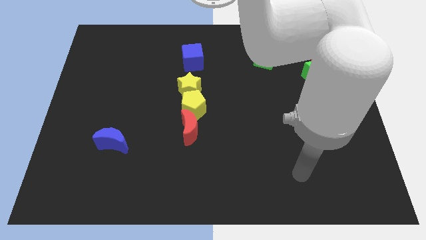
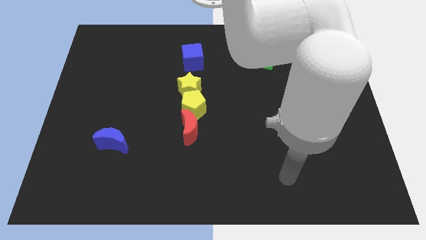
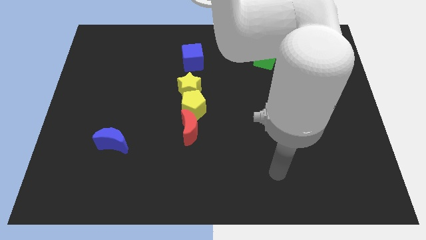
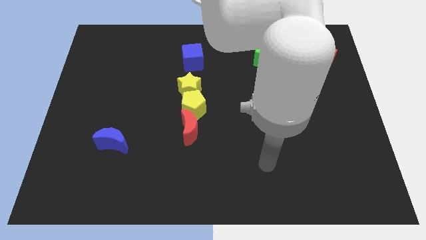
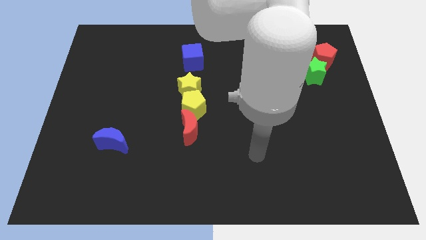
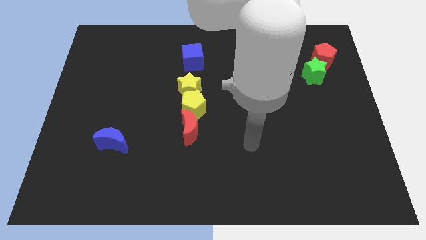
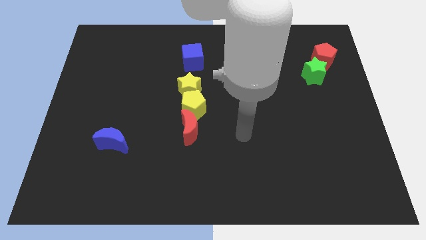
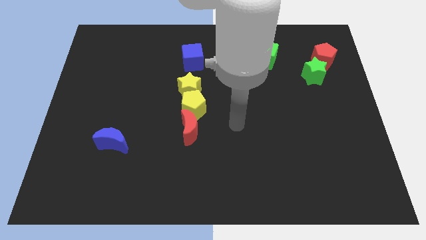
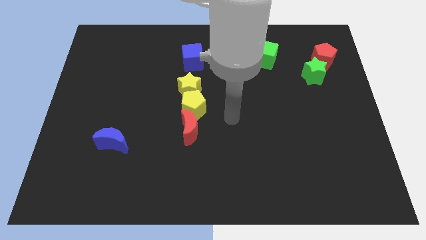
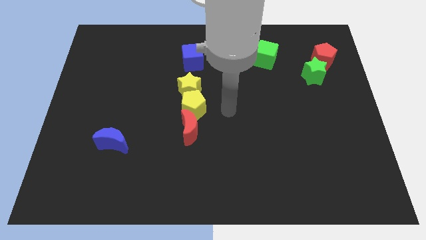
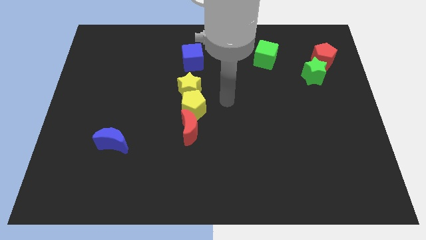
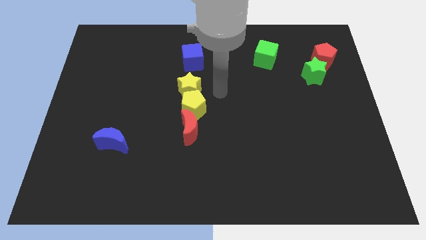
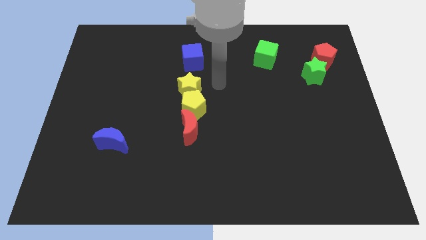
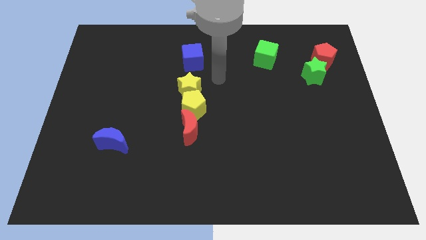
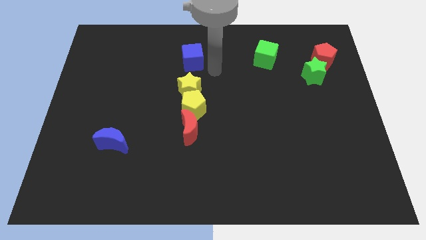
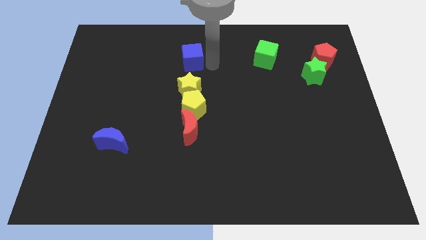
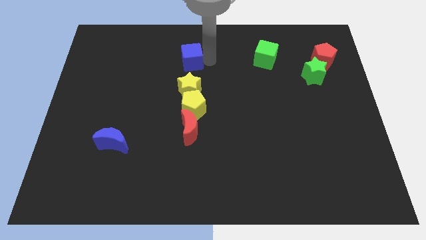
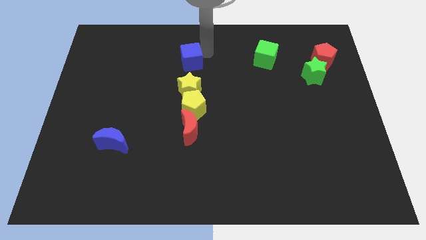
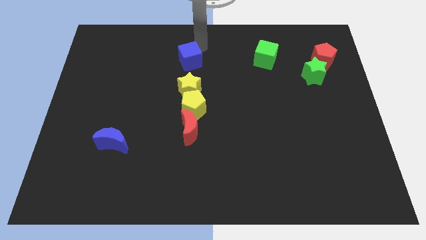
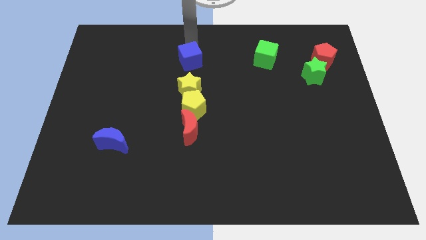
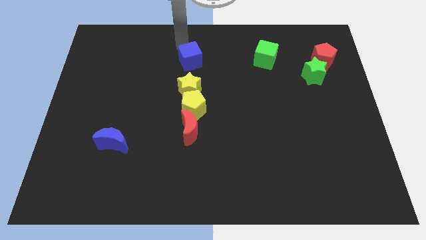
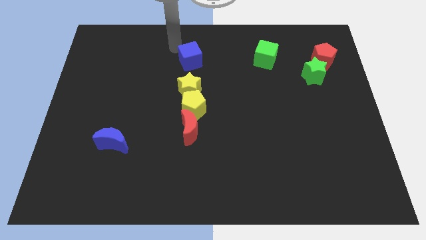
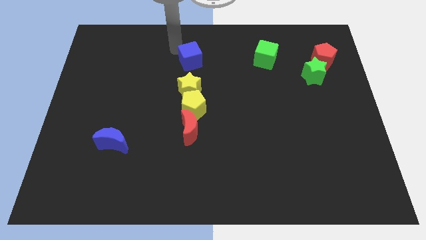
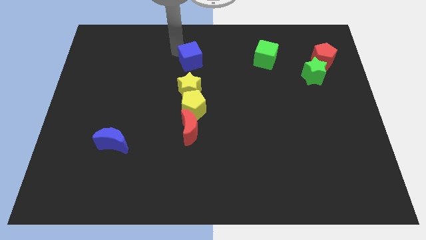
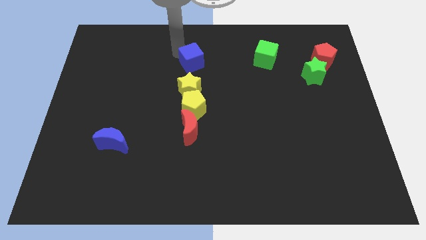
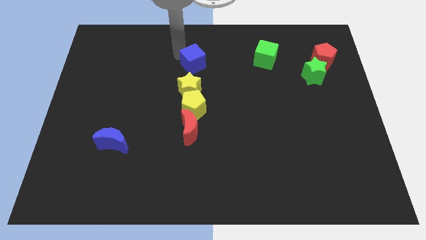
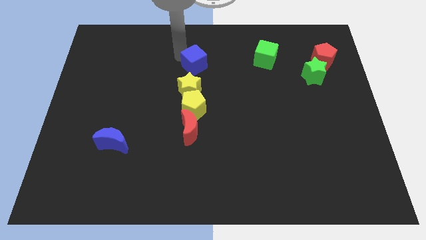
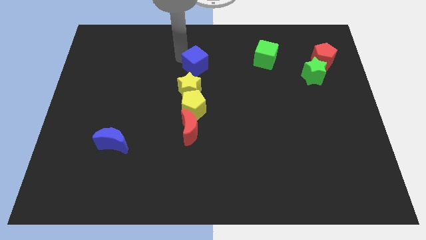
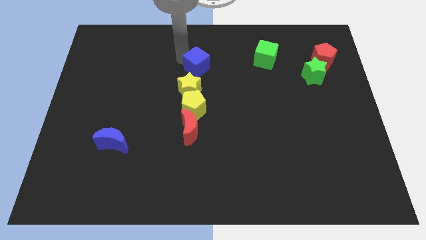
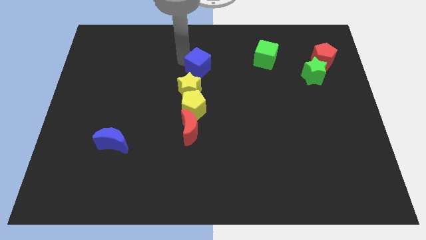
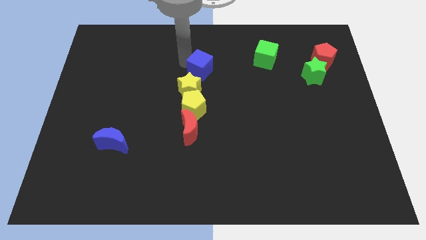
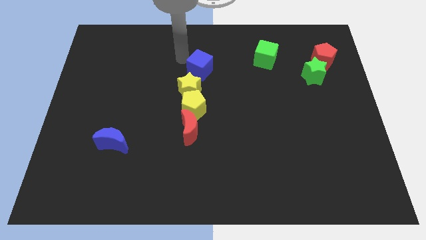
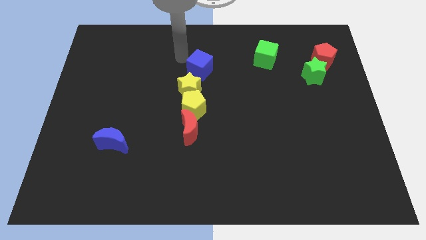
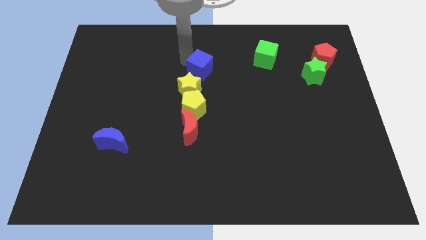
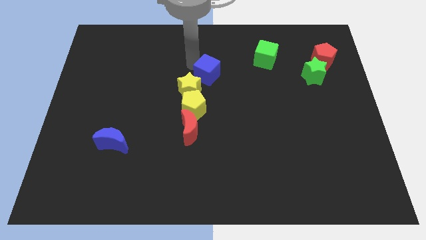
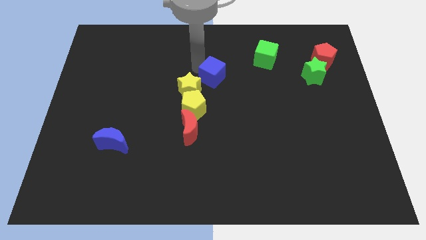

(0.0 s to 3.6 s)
move the blue cube a little downwards and then right

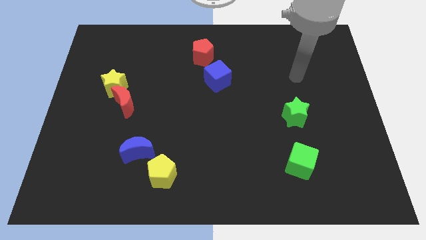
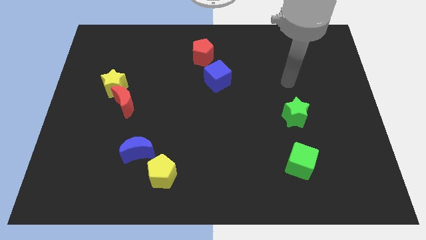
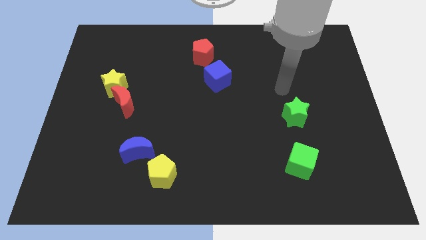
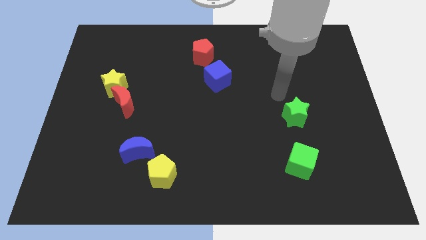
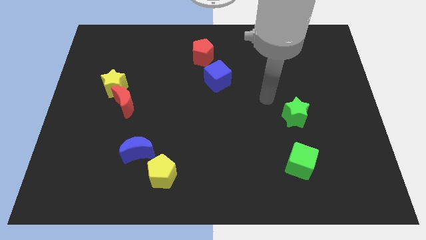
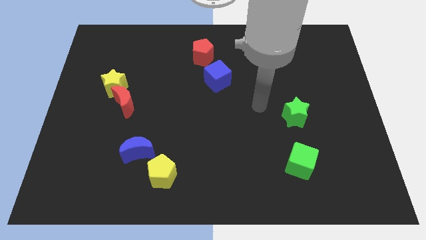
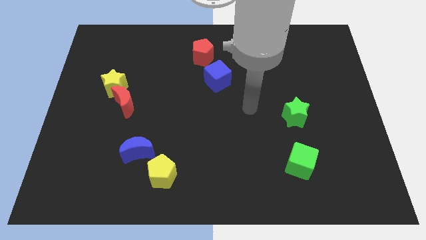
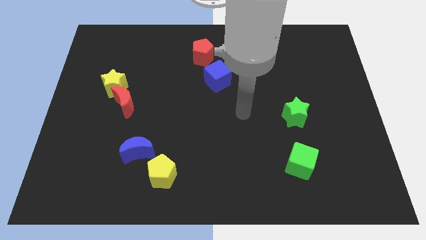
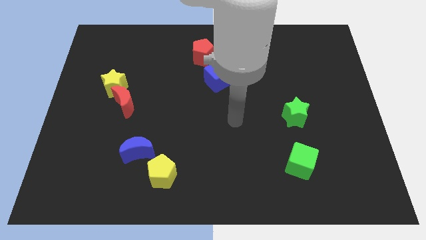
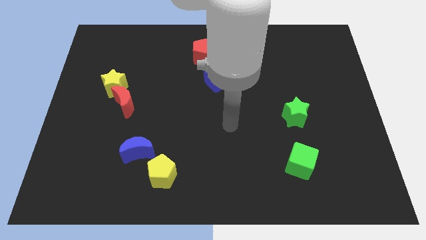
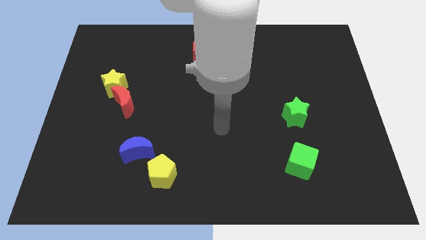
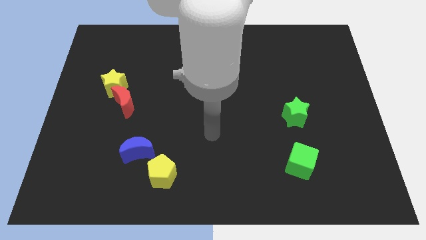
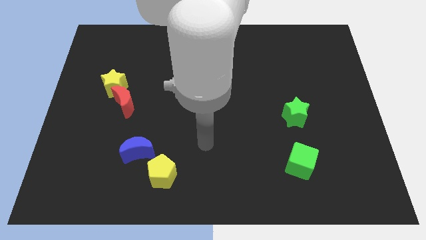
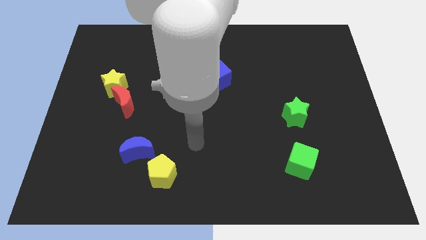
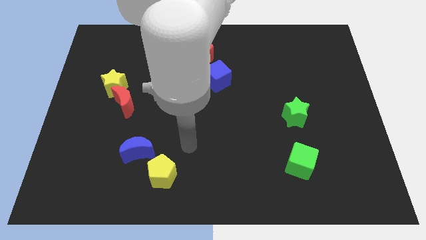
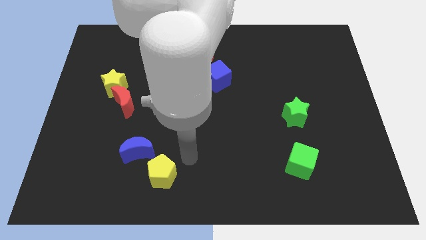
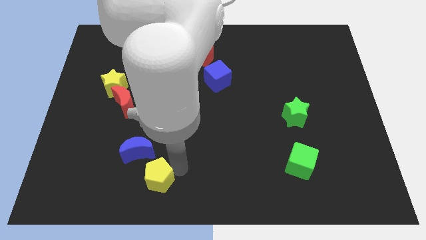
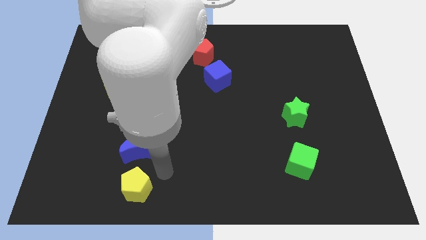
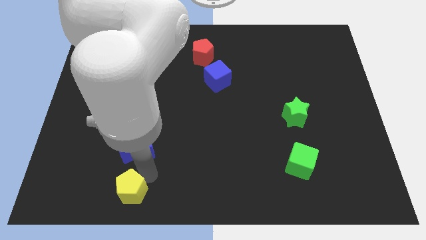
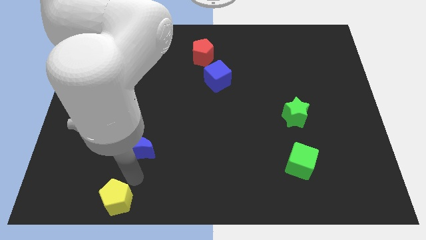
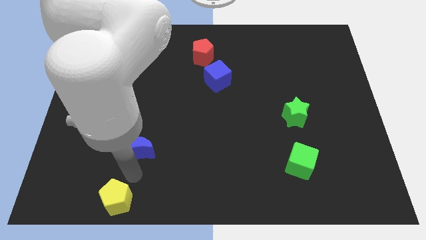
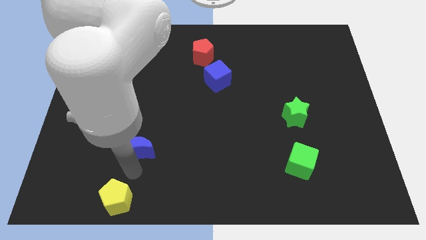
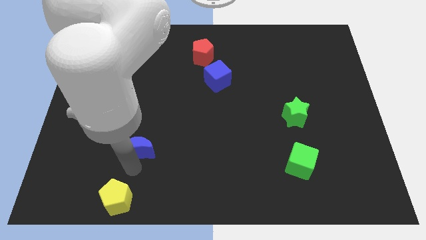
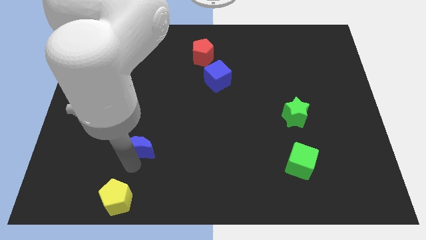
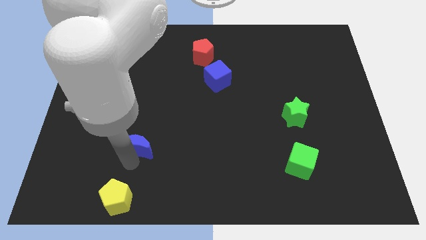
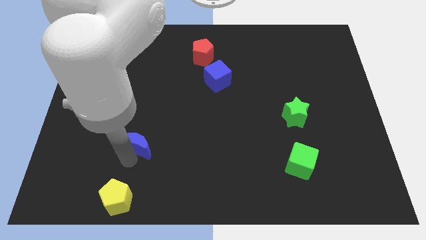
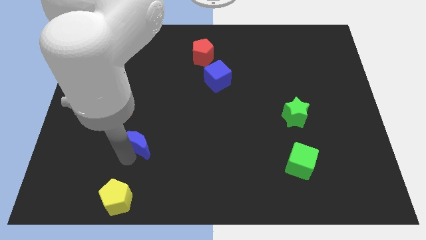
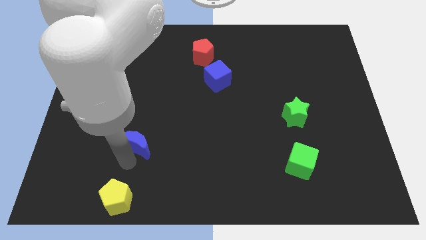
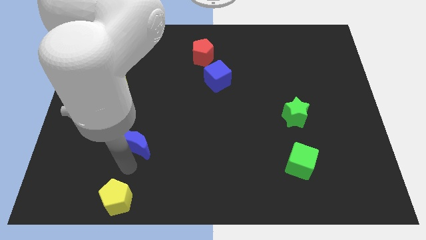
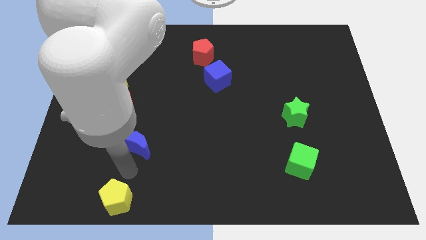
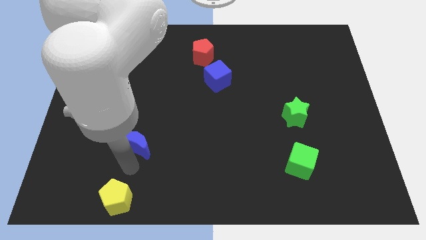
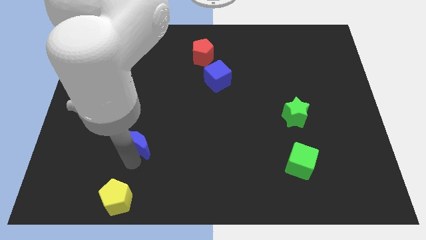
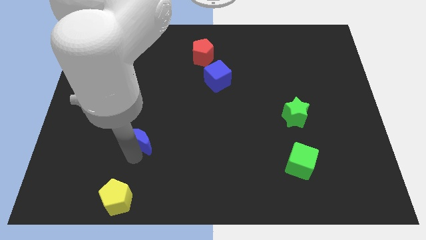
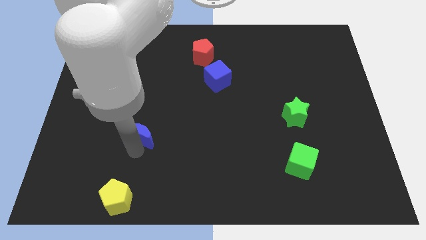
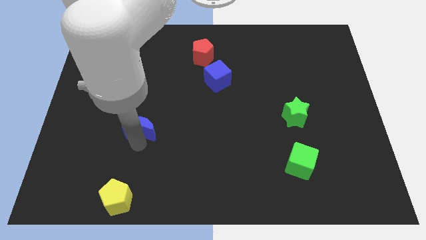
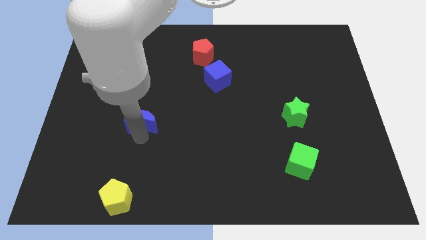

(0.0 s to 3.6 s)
push the blue moon slightly upwards

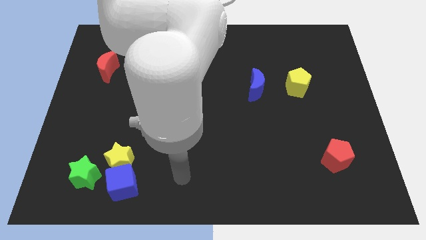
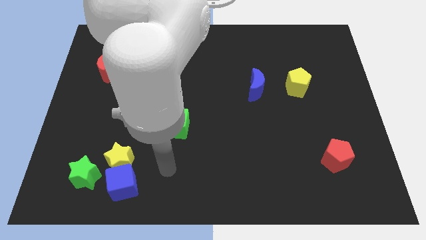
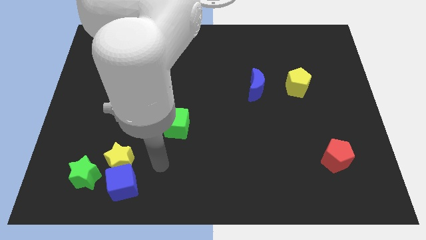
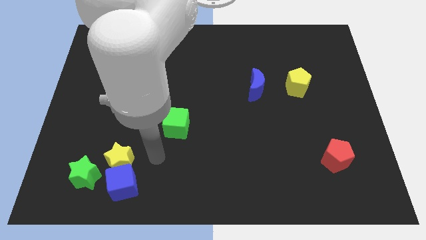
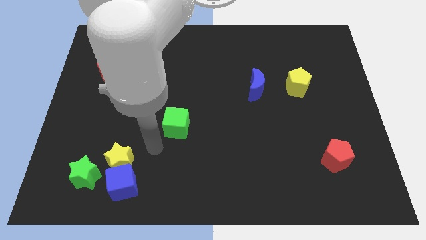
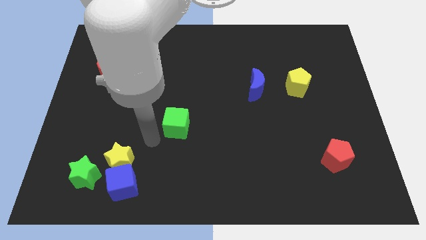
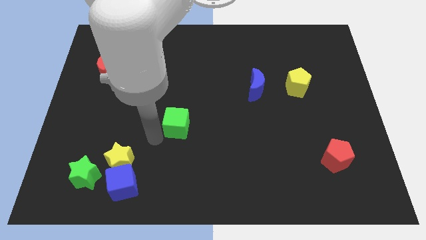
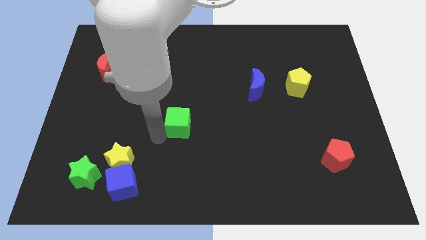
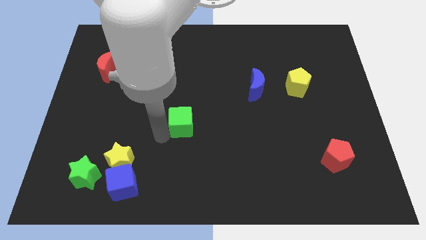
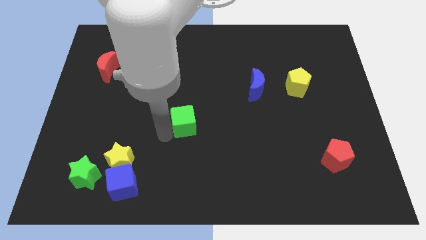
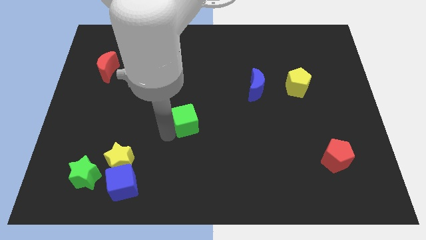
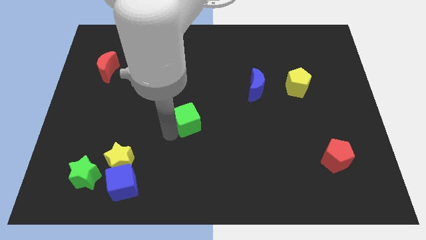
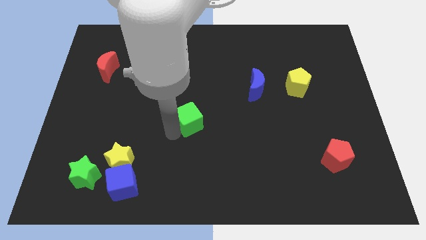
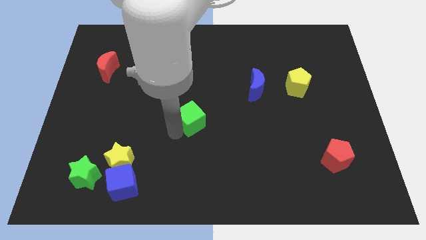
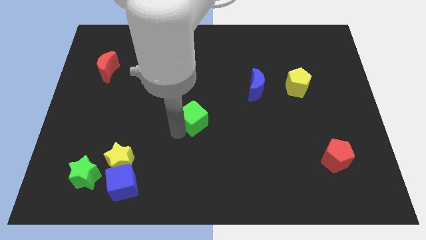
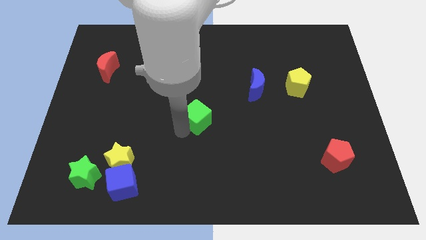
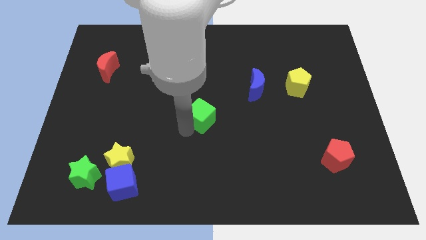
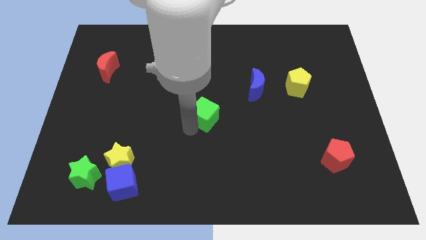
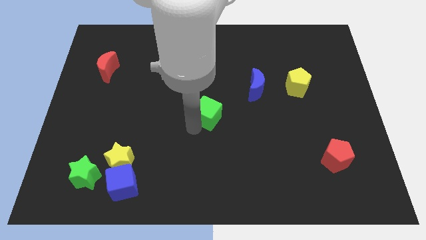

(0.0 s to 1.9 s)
slide the green cube slightly up and to the right
